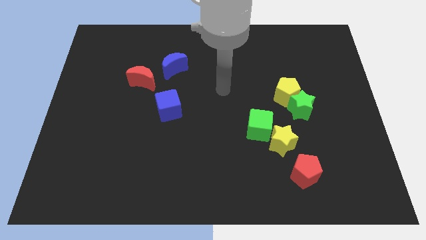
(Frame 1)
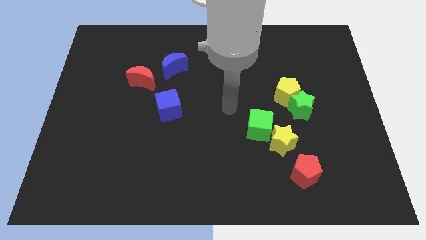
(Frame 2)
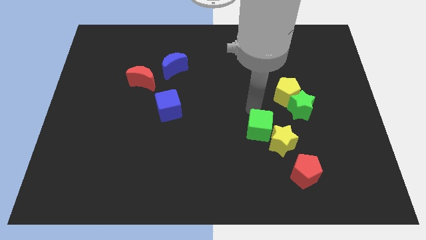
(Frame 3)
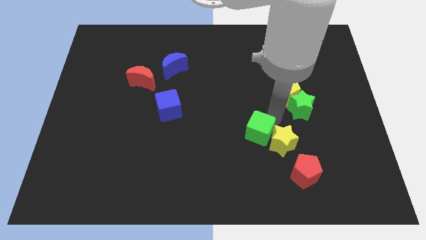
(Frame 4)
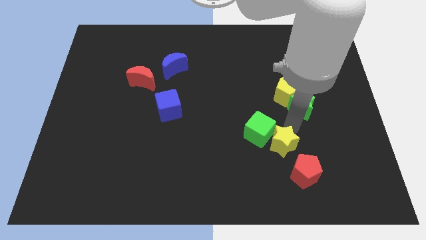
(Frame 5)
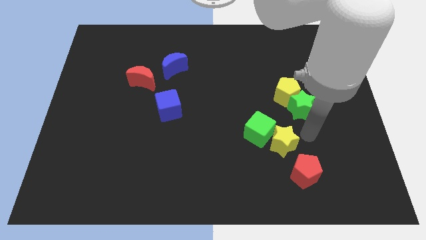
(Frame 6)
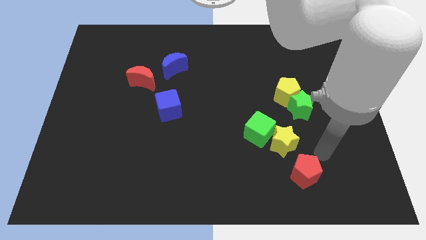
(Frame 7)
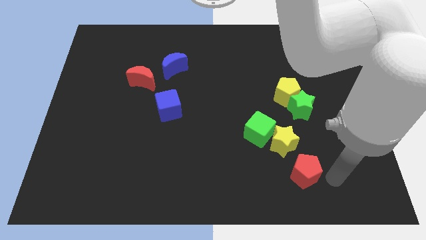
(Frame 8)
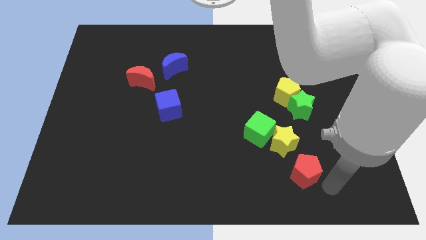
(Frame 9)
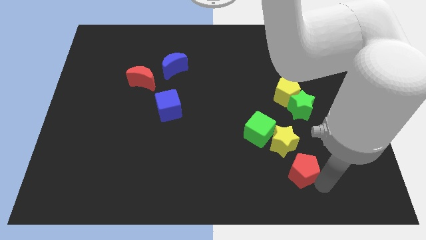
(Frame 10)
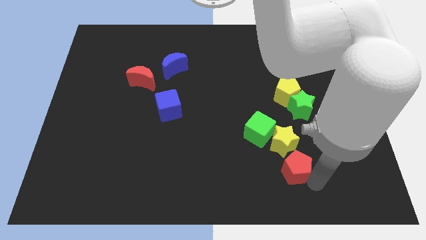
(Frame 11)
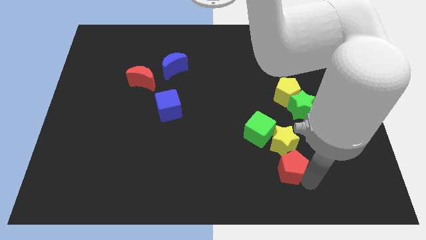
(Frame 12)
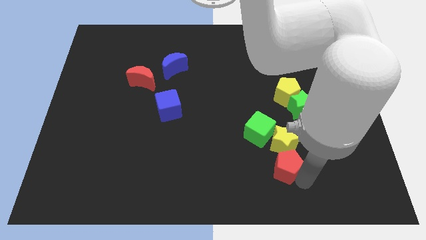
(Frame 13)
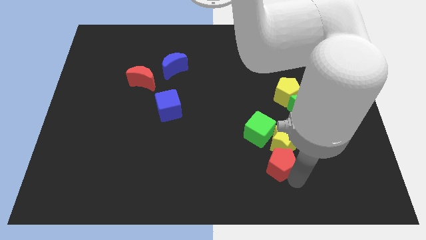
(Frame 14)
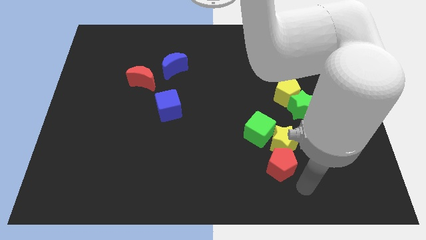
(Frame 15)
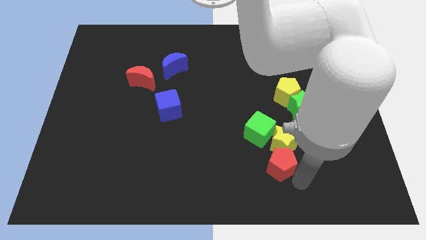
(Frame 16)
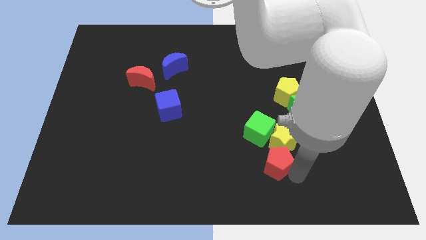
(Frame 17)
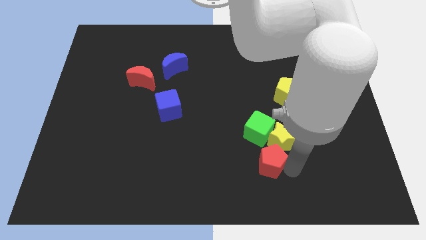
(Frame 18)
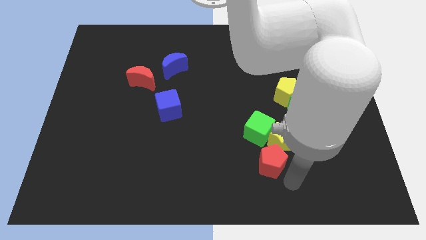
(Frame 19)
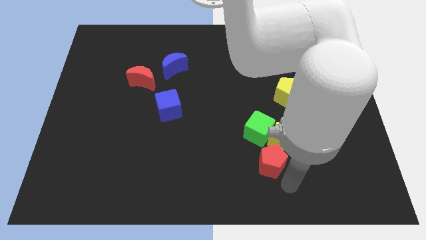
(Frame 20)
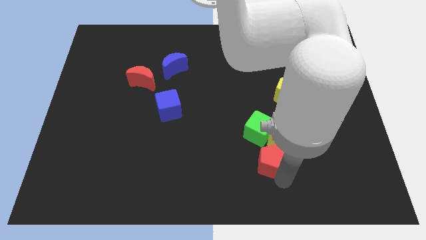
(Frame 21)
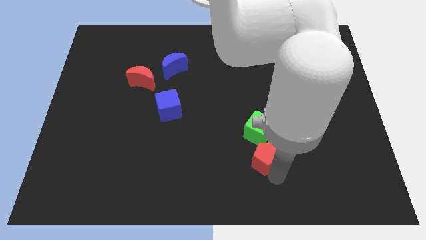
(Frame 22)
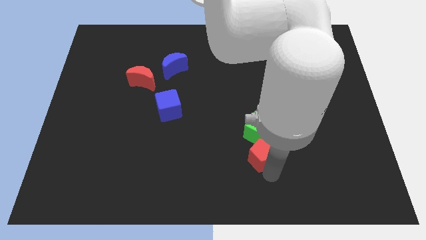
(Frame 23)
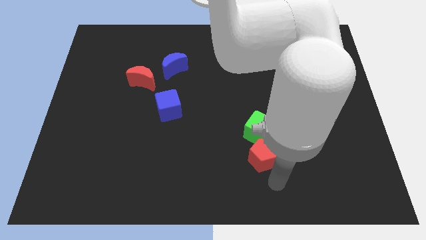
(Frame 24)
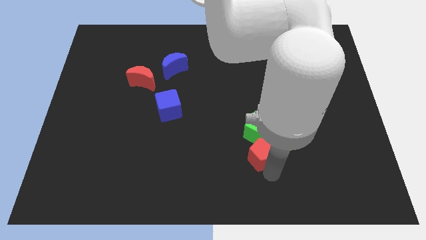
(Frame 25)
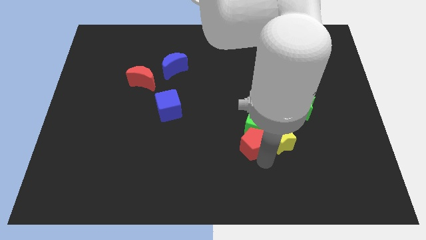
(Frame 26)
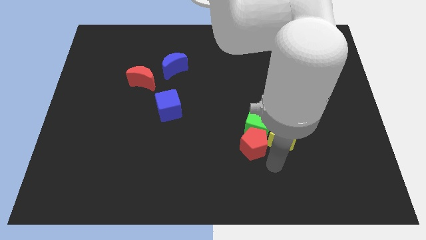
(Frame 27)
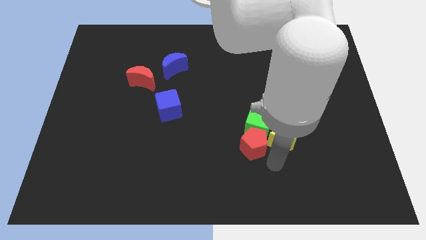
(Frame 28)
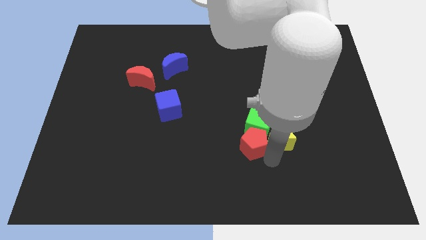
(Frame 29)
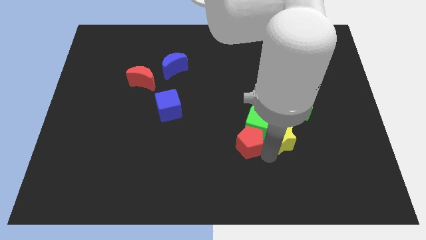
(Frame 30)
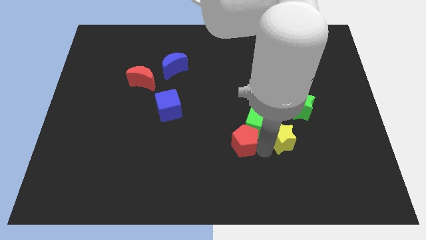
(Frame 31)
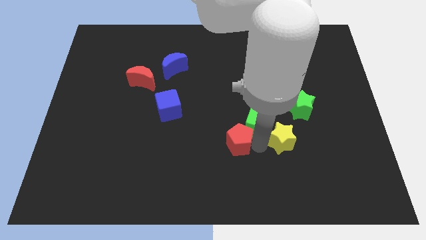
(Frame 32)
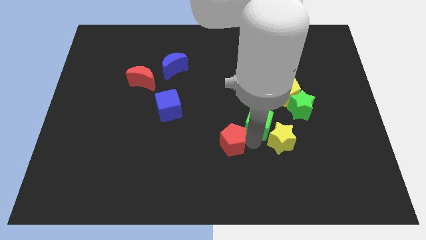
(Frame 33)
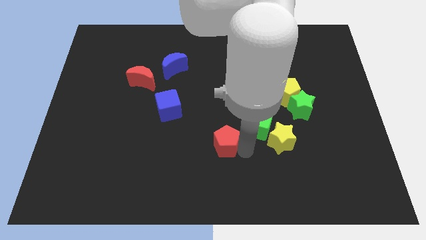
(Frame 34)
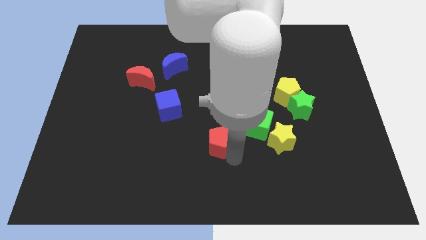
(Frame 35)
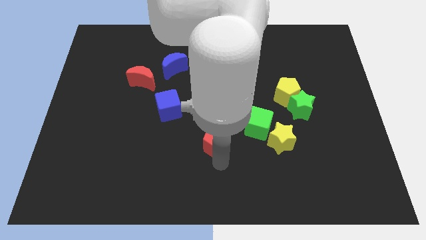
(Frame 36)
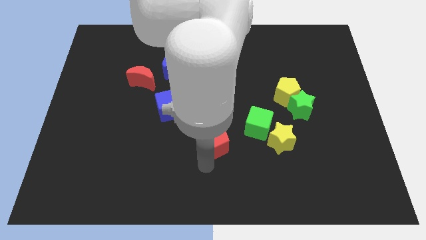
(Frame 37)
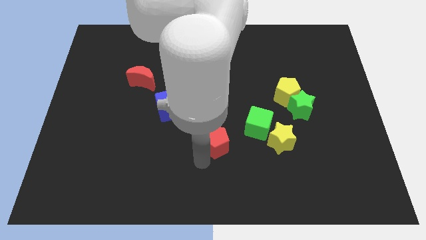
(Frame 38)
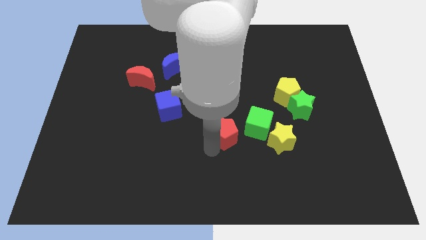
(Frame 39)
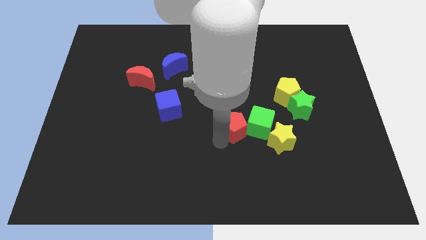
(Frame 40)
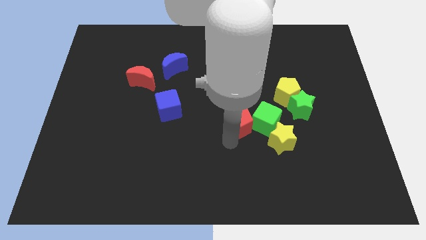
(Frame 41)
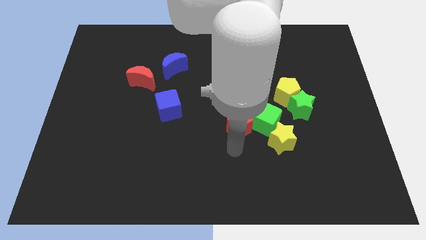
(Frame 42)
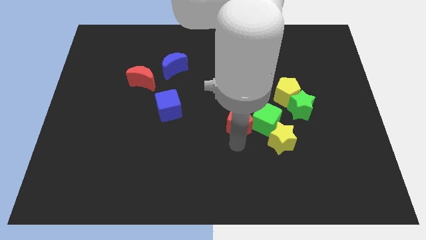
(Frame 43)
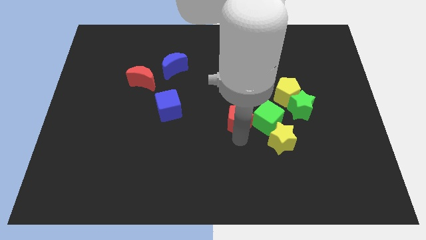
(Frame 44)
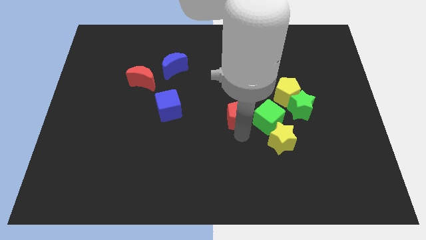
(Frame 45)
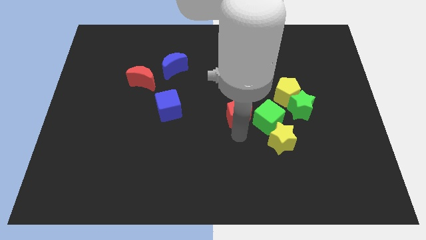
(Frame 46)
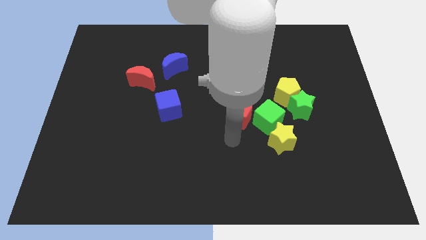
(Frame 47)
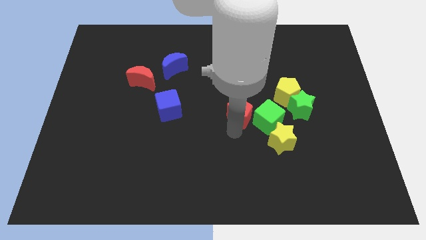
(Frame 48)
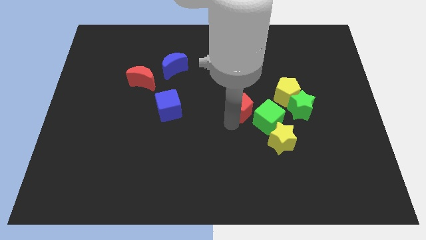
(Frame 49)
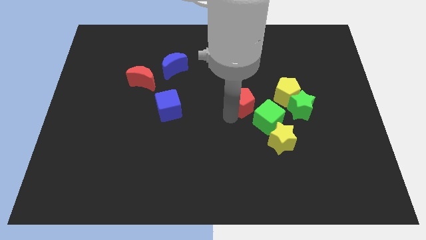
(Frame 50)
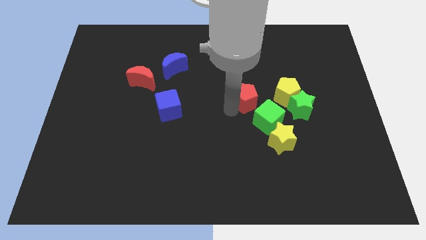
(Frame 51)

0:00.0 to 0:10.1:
push the red pentagon above the green cube

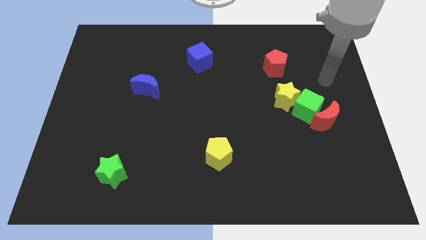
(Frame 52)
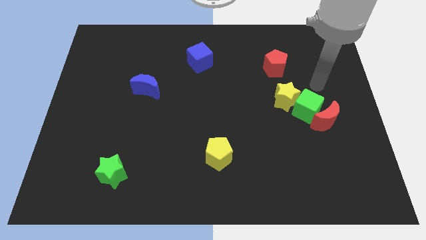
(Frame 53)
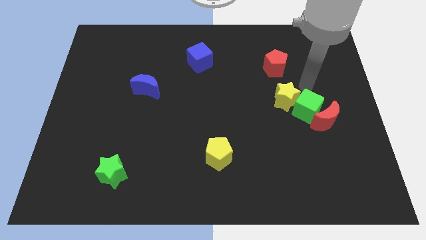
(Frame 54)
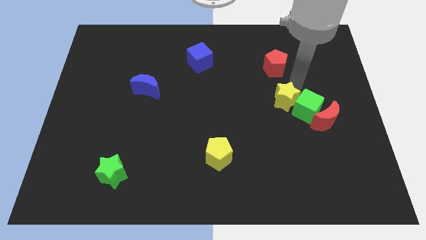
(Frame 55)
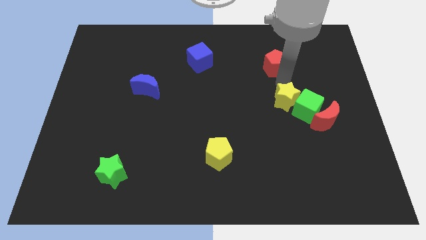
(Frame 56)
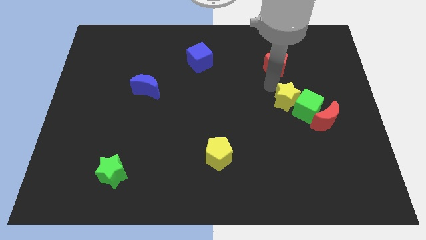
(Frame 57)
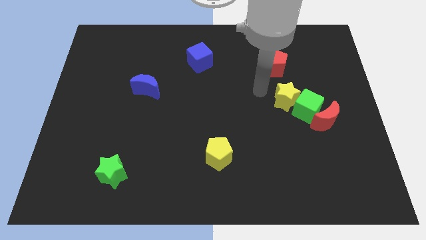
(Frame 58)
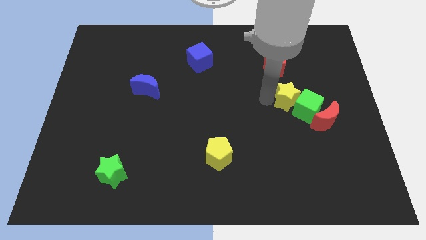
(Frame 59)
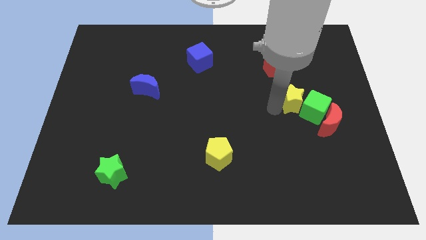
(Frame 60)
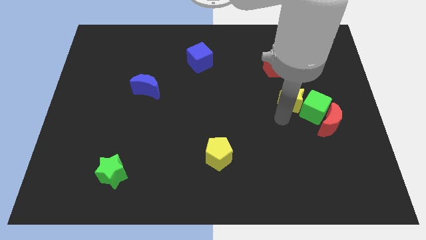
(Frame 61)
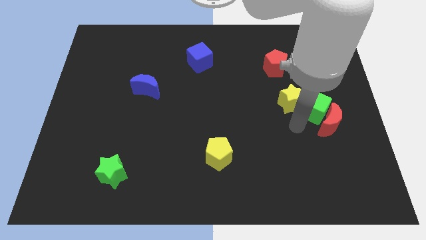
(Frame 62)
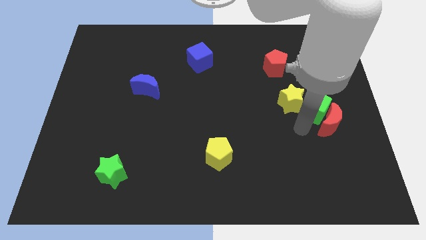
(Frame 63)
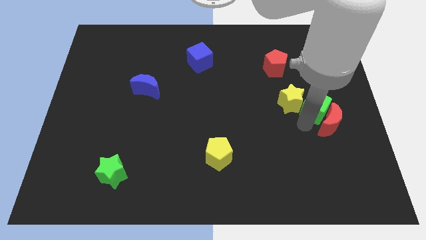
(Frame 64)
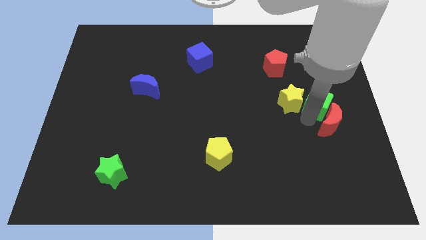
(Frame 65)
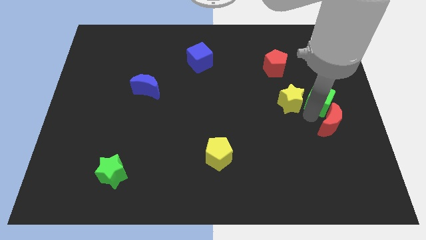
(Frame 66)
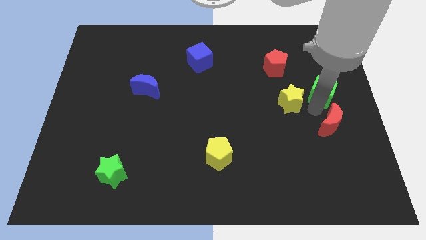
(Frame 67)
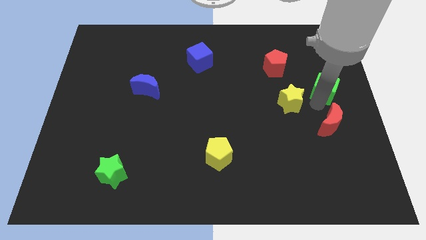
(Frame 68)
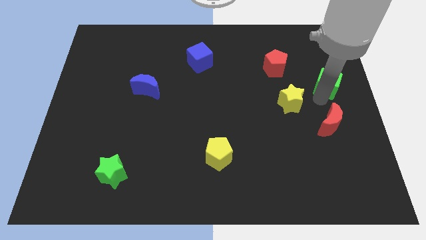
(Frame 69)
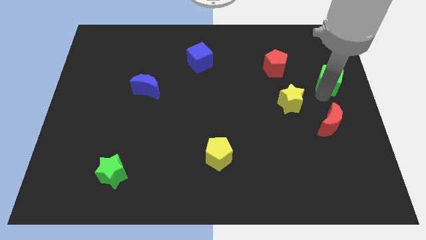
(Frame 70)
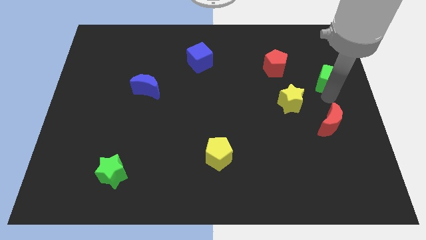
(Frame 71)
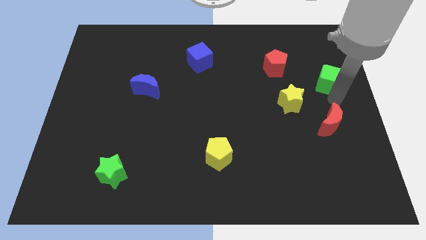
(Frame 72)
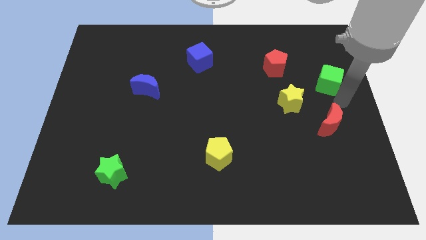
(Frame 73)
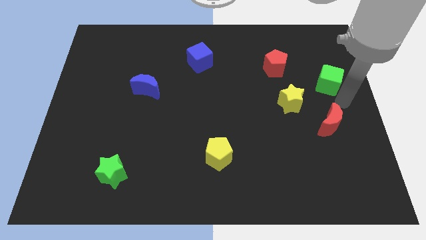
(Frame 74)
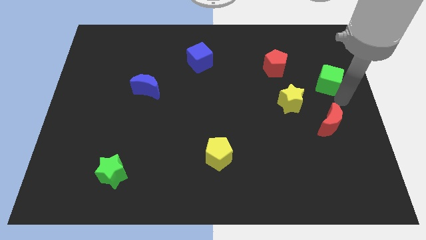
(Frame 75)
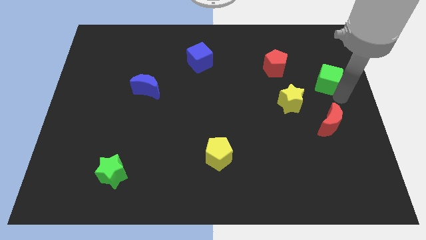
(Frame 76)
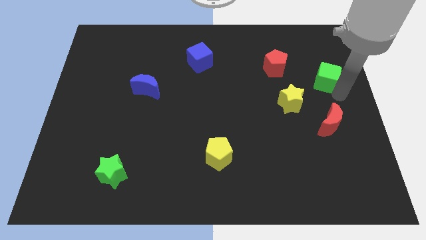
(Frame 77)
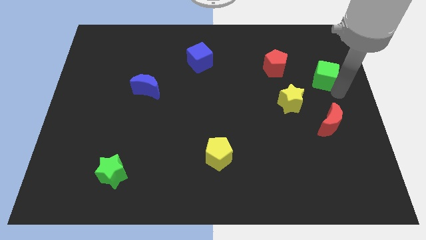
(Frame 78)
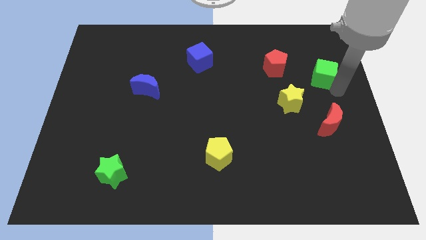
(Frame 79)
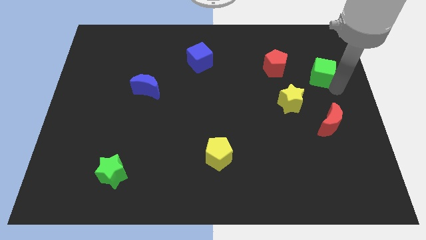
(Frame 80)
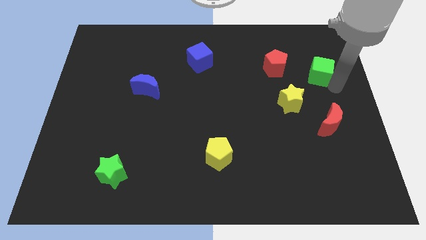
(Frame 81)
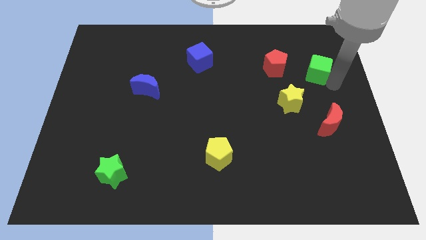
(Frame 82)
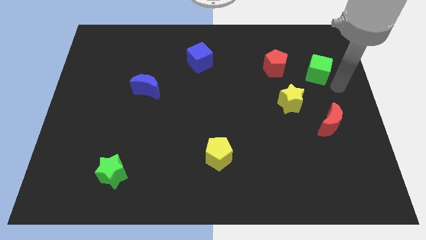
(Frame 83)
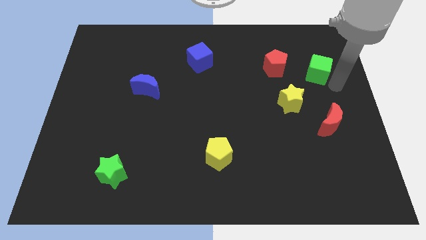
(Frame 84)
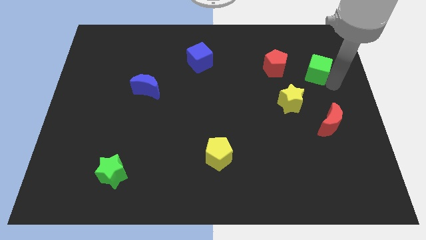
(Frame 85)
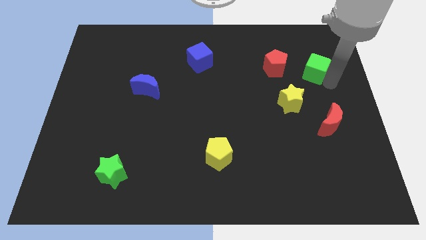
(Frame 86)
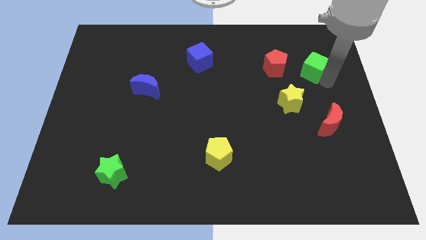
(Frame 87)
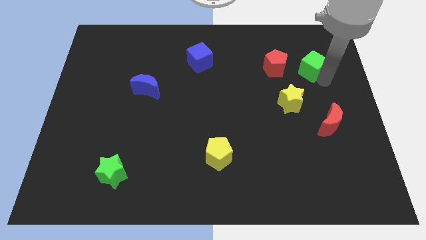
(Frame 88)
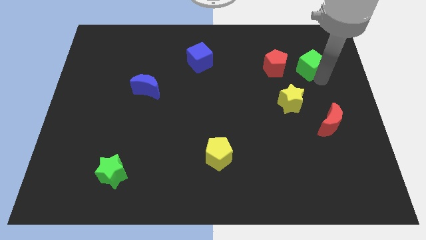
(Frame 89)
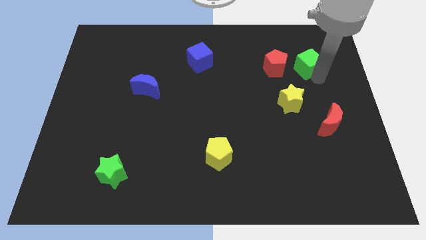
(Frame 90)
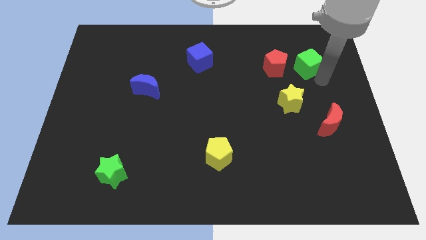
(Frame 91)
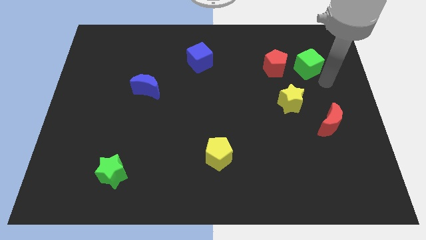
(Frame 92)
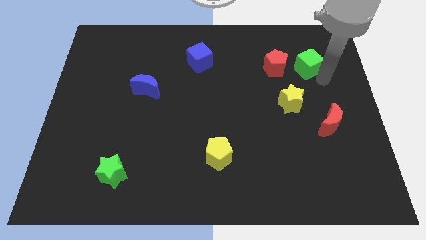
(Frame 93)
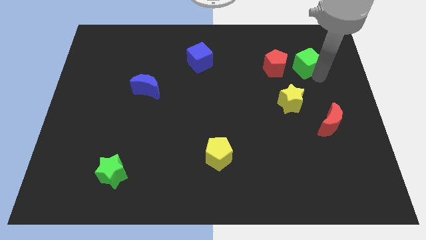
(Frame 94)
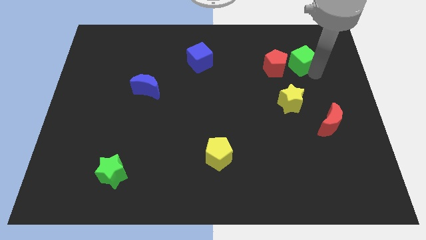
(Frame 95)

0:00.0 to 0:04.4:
slide the green cube to the top of the yellow star
